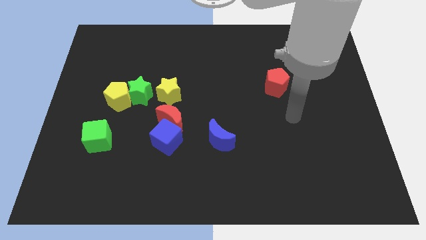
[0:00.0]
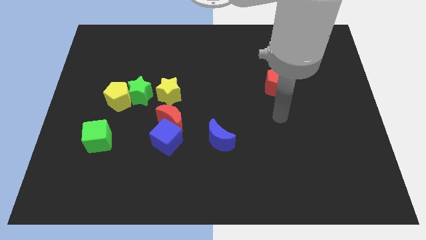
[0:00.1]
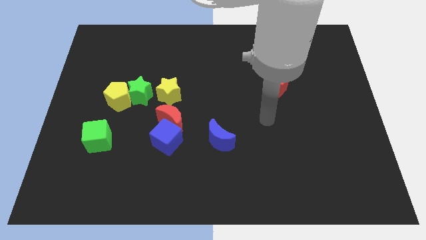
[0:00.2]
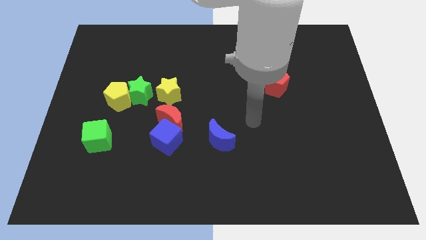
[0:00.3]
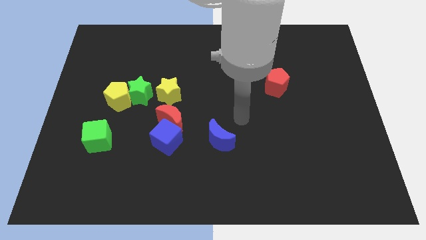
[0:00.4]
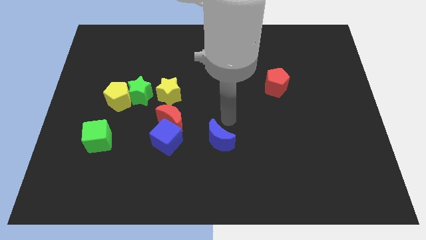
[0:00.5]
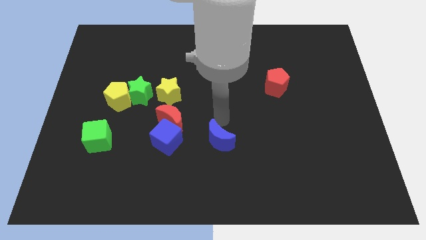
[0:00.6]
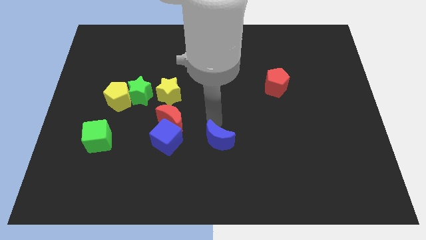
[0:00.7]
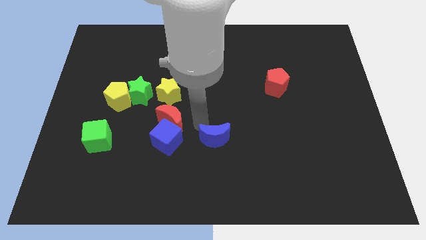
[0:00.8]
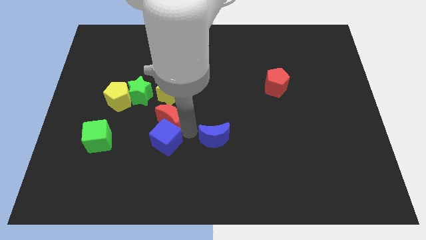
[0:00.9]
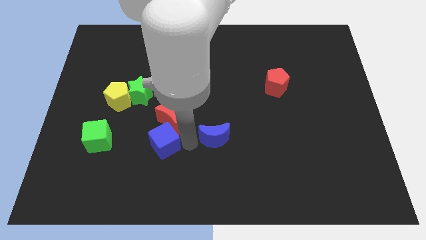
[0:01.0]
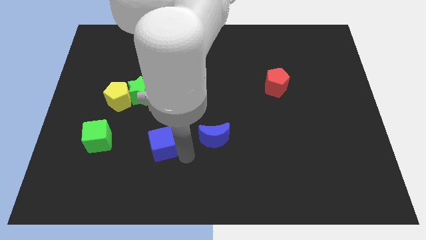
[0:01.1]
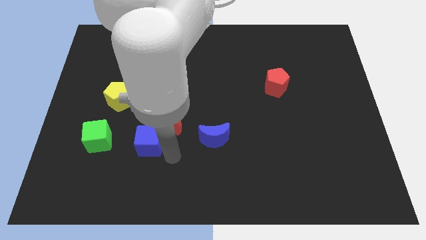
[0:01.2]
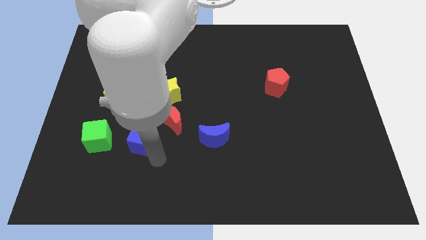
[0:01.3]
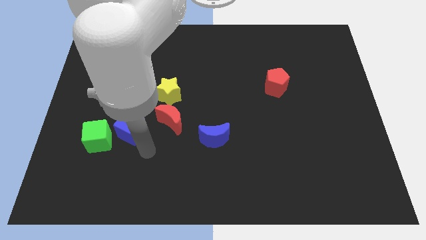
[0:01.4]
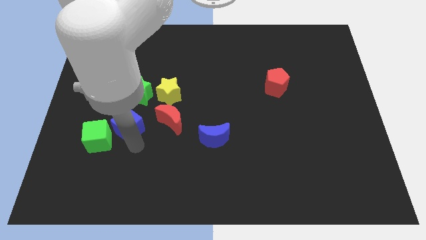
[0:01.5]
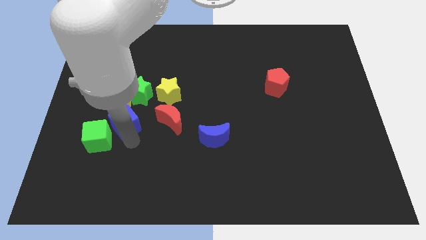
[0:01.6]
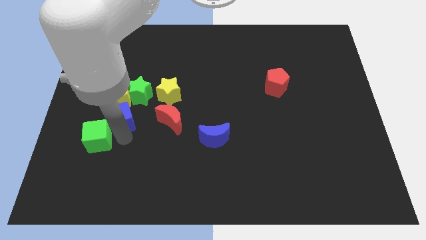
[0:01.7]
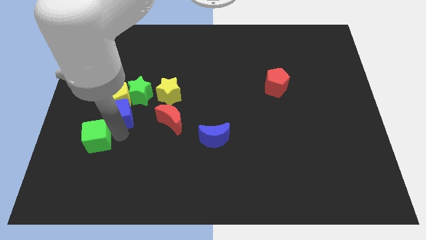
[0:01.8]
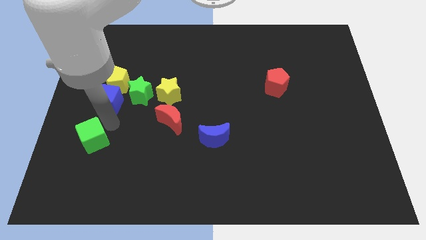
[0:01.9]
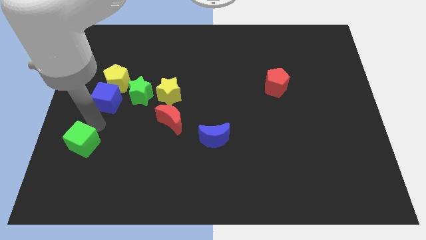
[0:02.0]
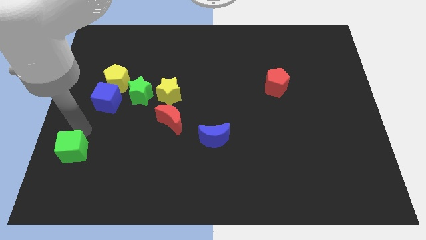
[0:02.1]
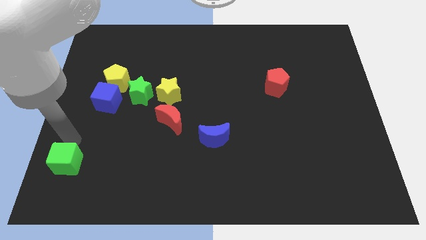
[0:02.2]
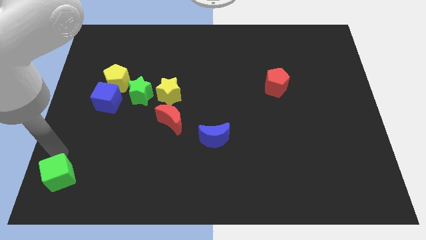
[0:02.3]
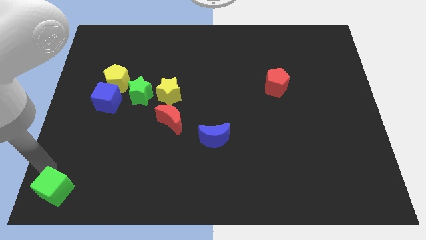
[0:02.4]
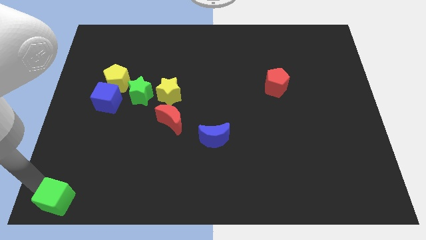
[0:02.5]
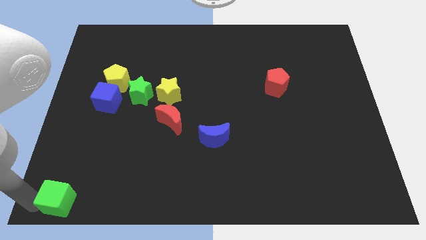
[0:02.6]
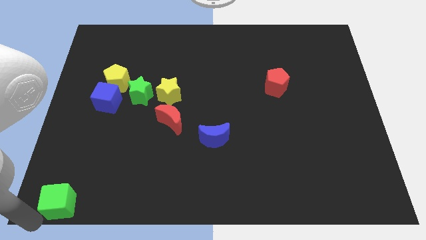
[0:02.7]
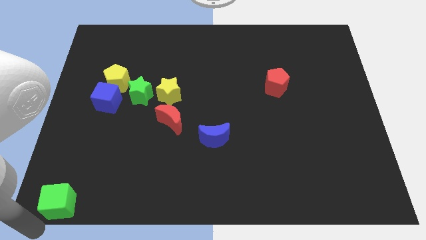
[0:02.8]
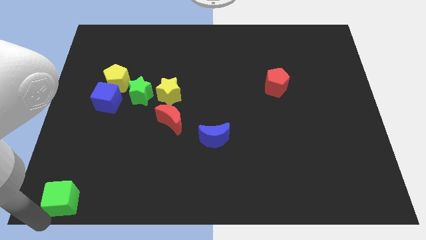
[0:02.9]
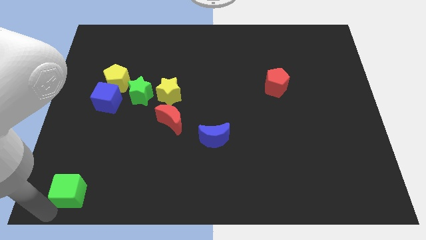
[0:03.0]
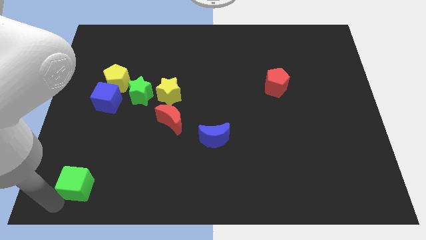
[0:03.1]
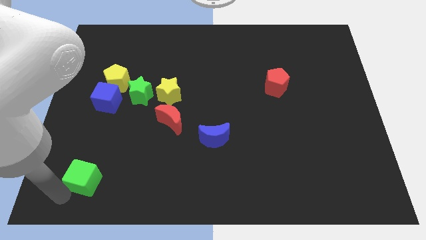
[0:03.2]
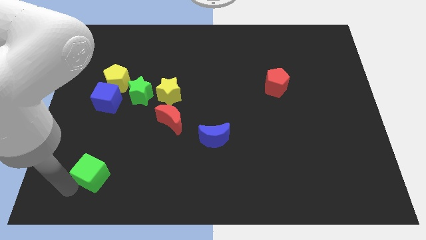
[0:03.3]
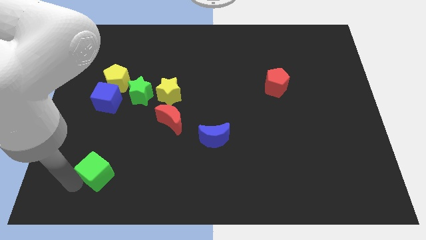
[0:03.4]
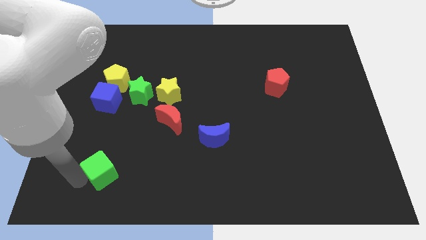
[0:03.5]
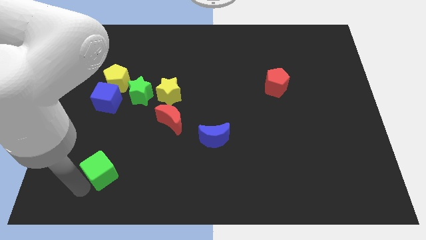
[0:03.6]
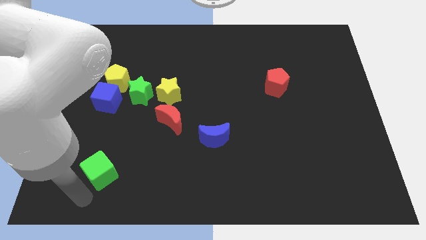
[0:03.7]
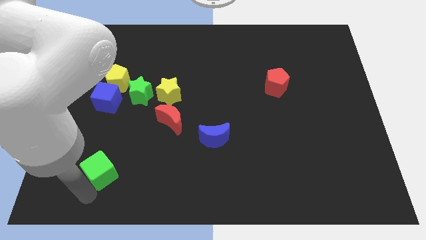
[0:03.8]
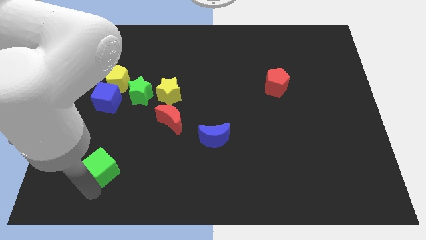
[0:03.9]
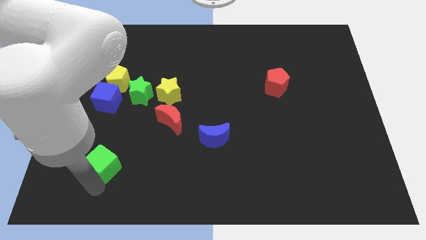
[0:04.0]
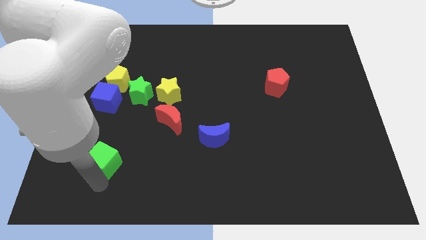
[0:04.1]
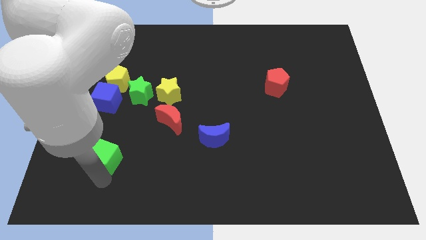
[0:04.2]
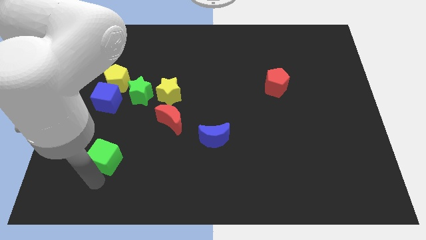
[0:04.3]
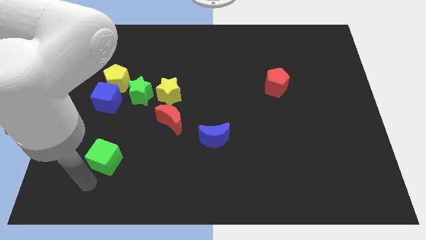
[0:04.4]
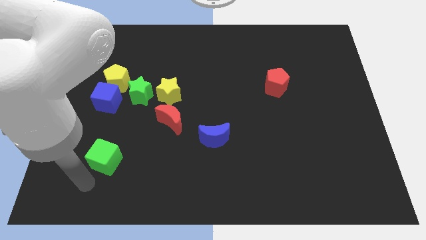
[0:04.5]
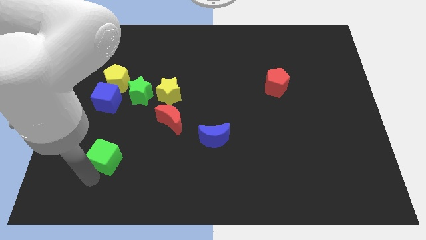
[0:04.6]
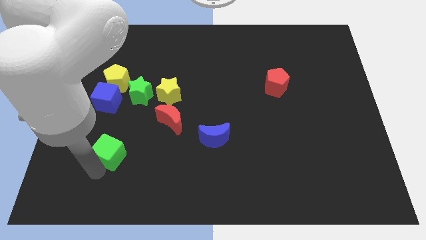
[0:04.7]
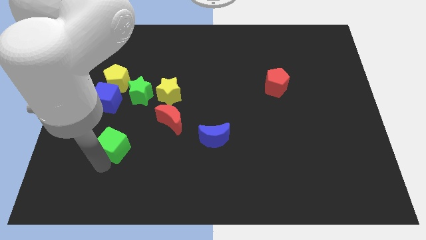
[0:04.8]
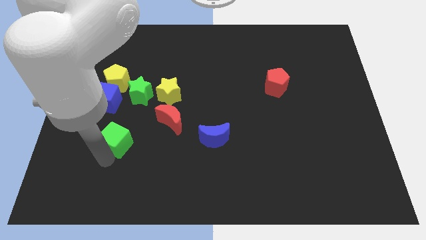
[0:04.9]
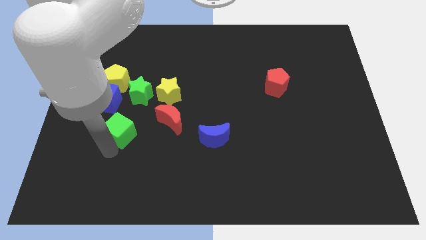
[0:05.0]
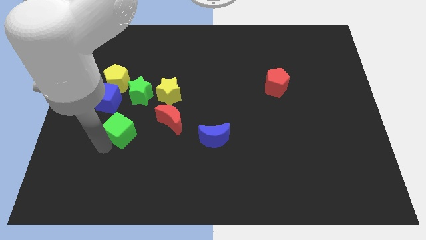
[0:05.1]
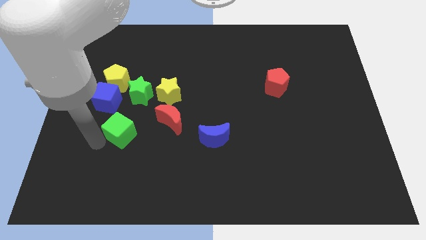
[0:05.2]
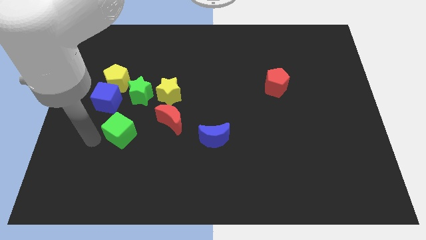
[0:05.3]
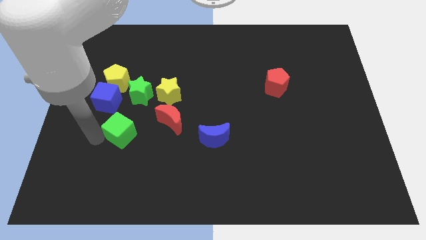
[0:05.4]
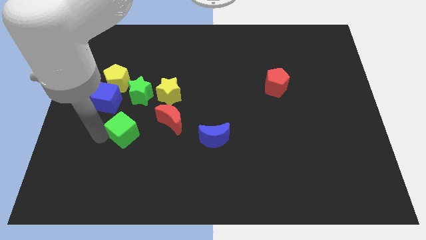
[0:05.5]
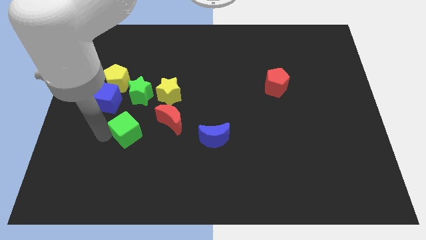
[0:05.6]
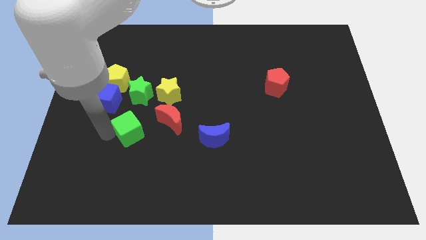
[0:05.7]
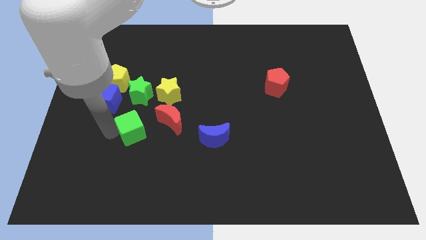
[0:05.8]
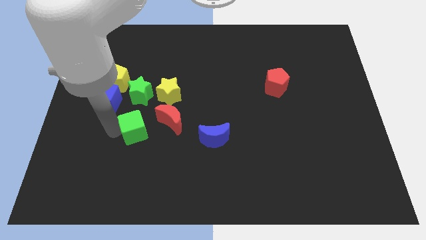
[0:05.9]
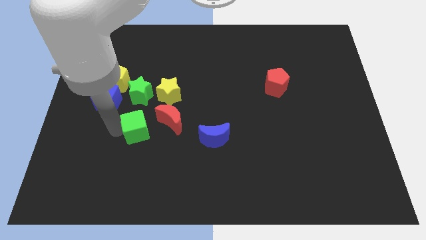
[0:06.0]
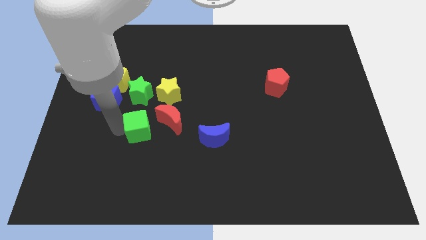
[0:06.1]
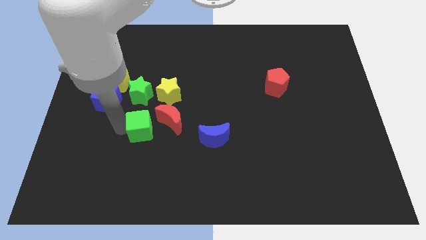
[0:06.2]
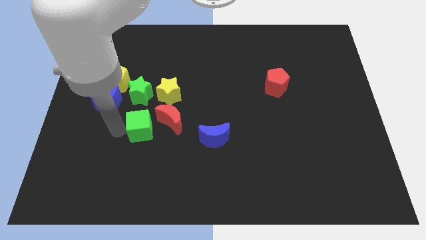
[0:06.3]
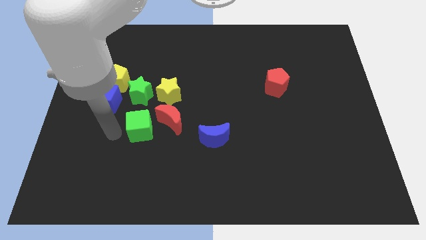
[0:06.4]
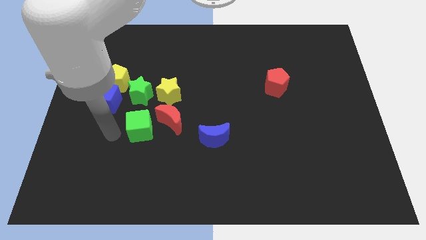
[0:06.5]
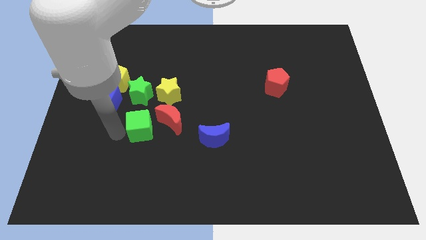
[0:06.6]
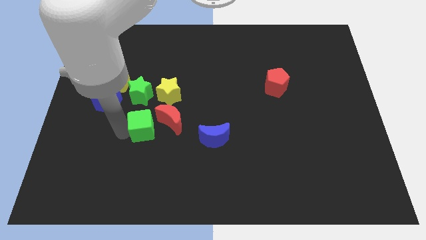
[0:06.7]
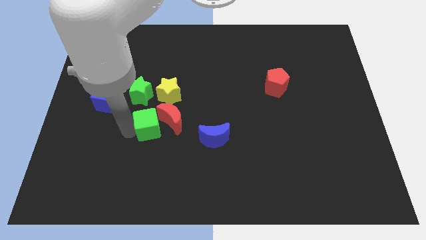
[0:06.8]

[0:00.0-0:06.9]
slide the green cube next to the red moon

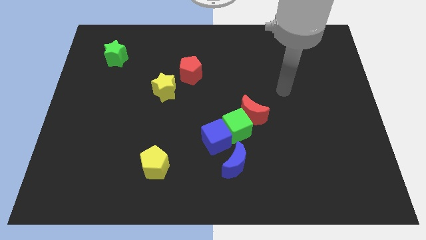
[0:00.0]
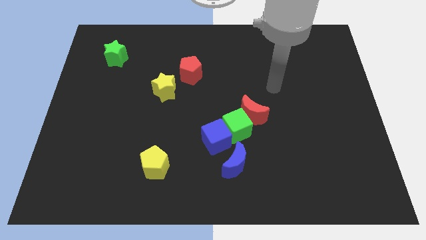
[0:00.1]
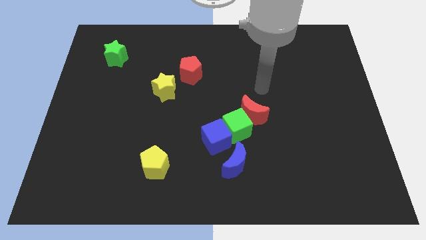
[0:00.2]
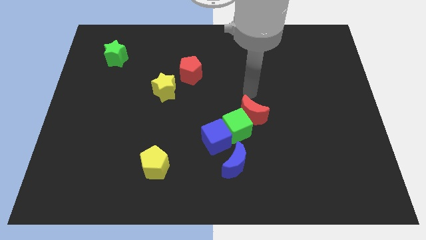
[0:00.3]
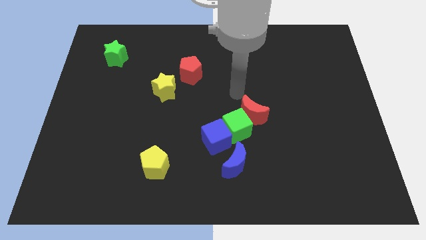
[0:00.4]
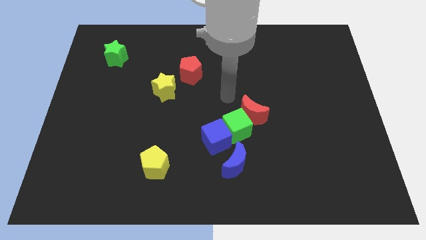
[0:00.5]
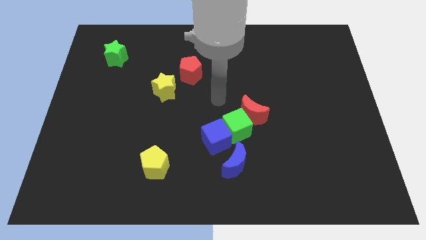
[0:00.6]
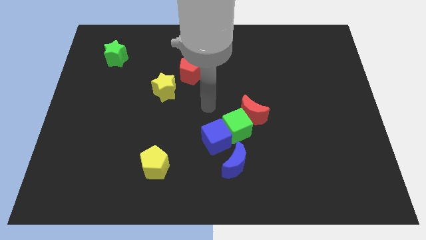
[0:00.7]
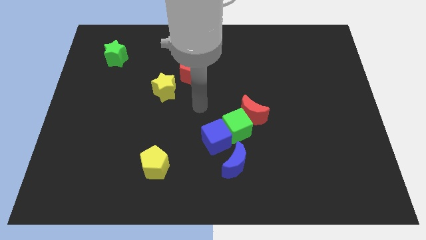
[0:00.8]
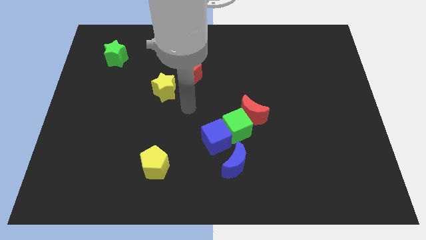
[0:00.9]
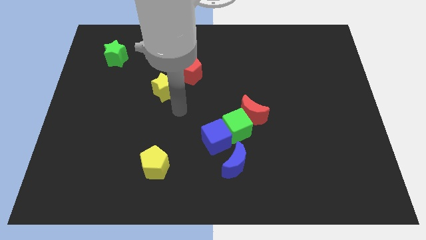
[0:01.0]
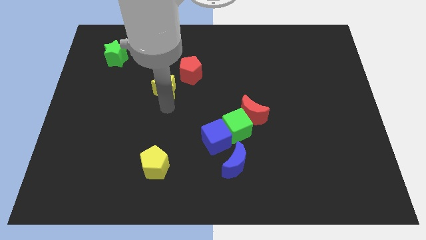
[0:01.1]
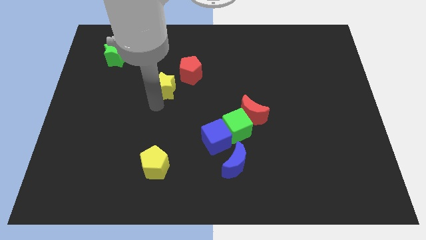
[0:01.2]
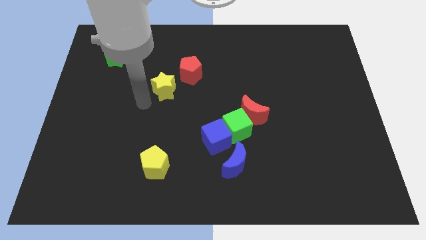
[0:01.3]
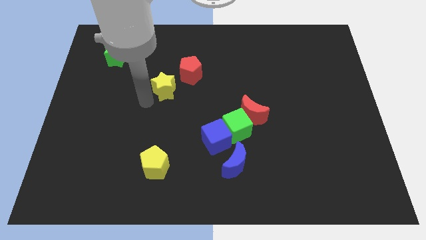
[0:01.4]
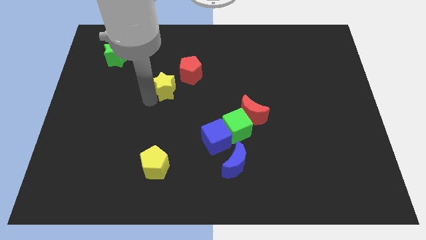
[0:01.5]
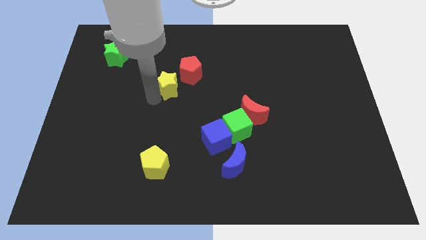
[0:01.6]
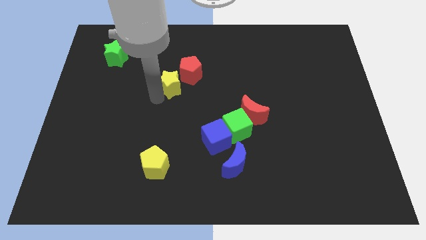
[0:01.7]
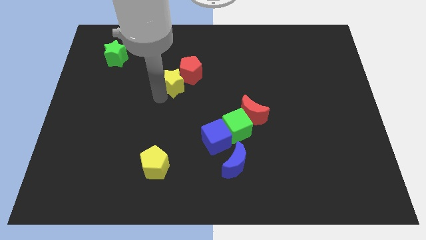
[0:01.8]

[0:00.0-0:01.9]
move the yellow star close to the red pentagon
